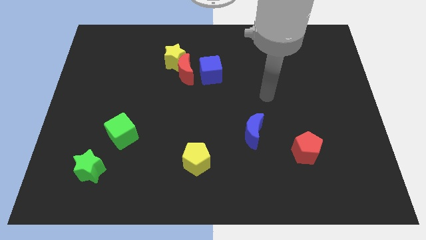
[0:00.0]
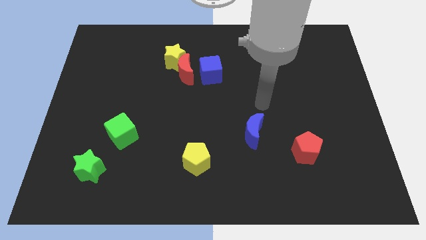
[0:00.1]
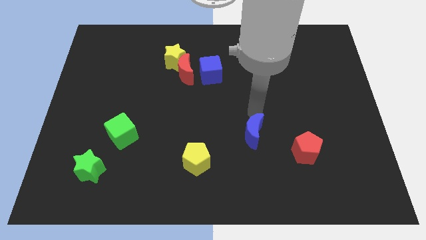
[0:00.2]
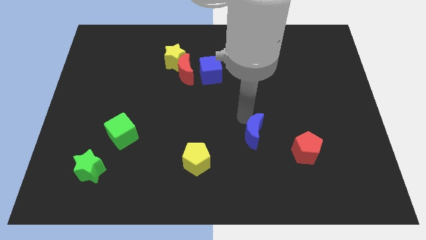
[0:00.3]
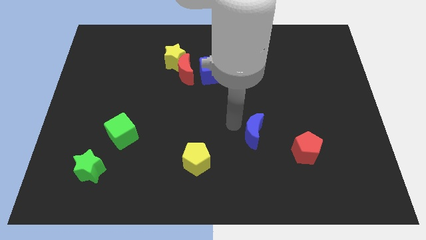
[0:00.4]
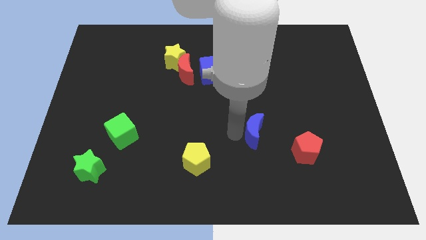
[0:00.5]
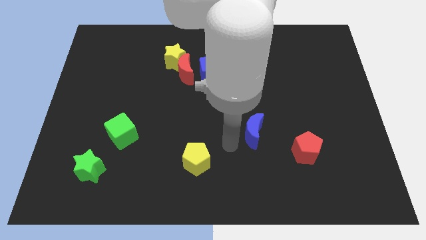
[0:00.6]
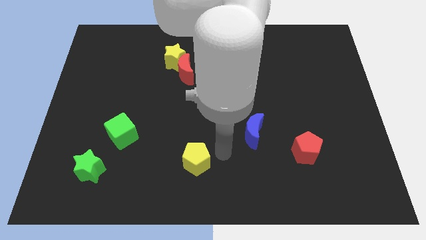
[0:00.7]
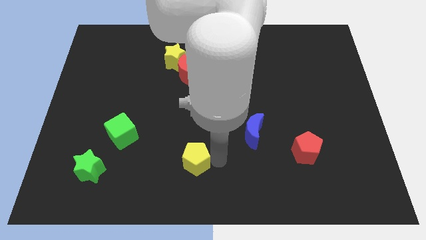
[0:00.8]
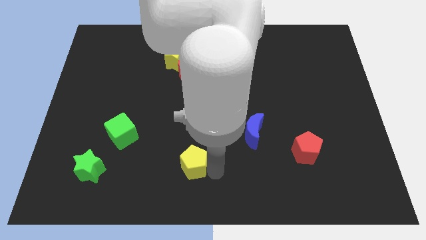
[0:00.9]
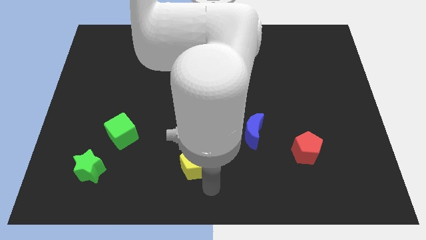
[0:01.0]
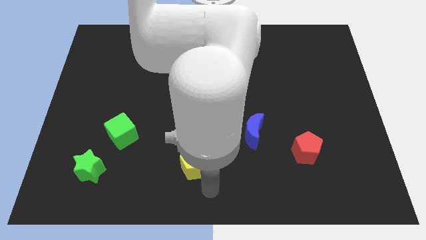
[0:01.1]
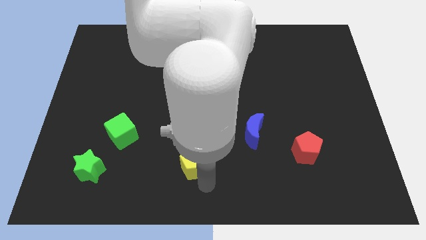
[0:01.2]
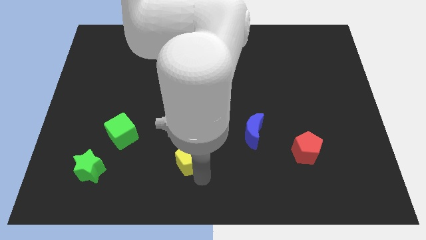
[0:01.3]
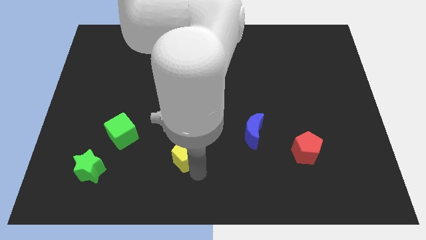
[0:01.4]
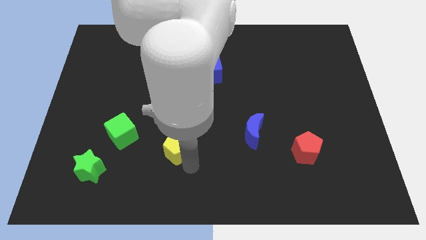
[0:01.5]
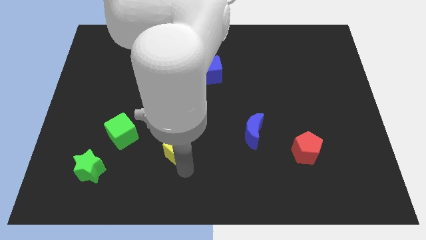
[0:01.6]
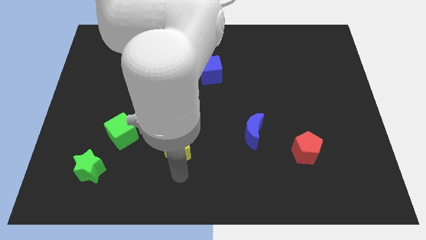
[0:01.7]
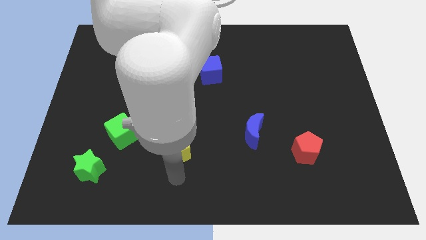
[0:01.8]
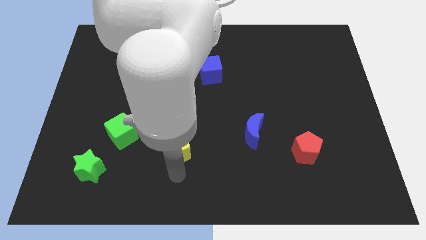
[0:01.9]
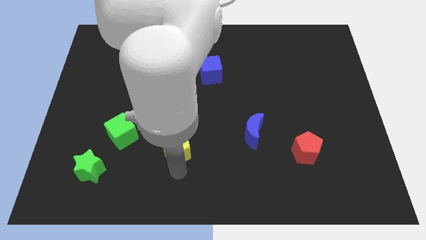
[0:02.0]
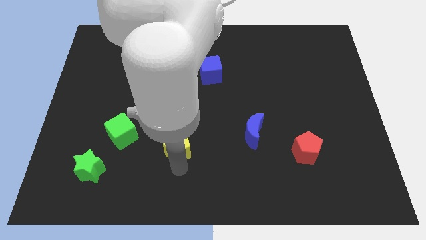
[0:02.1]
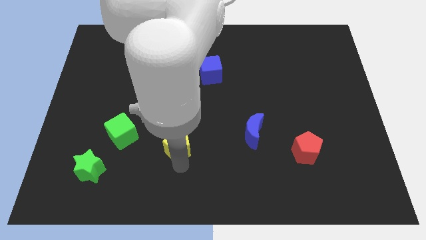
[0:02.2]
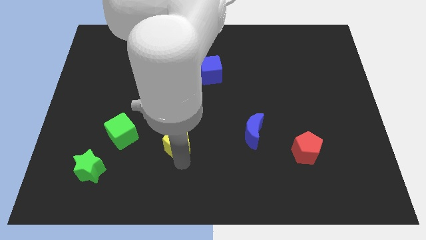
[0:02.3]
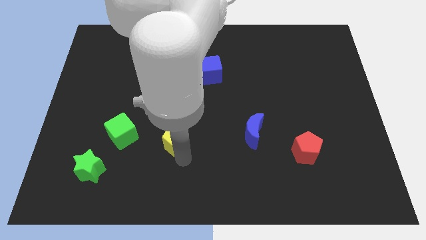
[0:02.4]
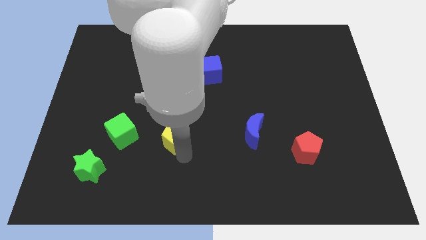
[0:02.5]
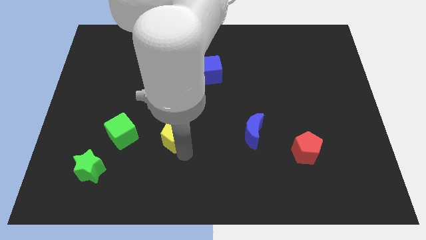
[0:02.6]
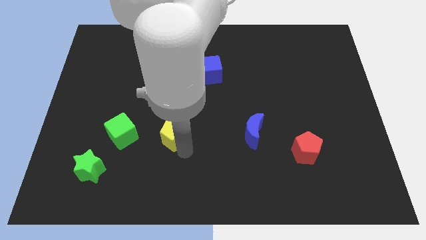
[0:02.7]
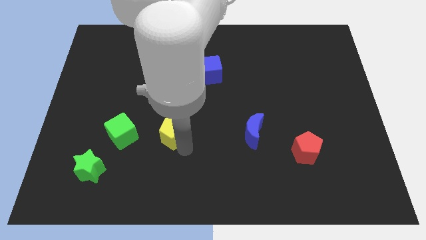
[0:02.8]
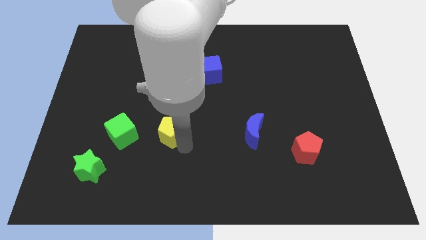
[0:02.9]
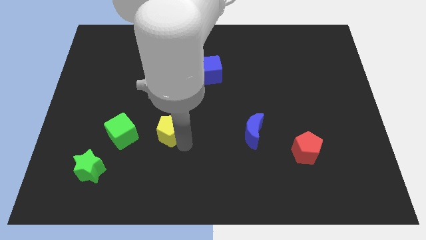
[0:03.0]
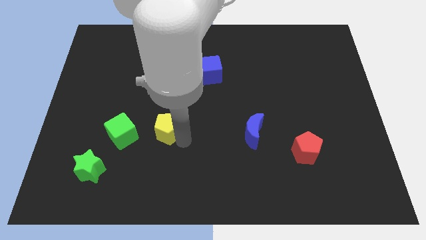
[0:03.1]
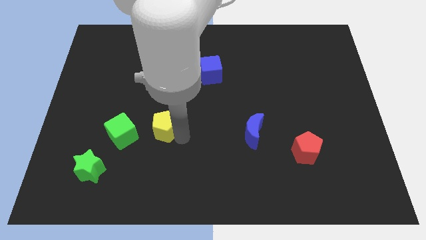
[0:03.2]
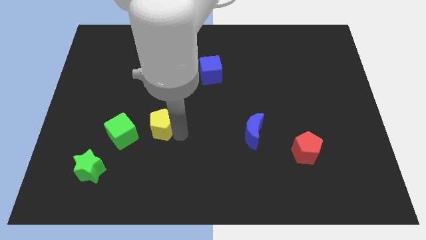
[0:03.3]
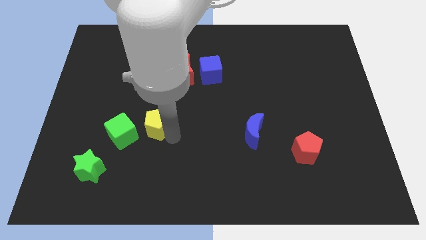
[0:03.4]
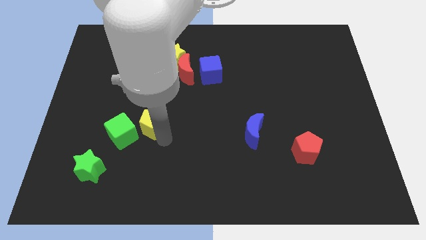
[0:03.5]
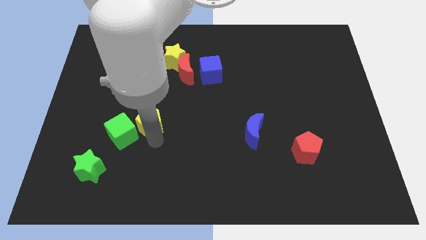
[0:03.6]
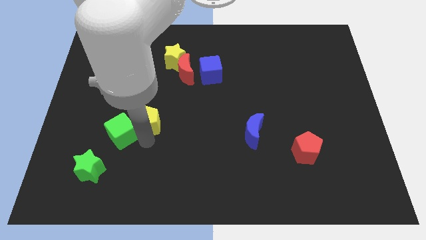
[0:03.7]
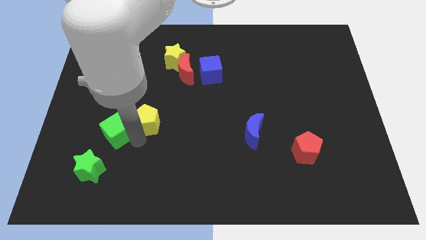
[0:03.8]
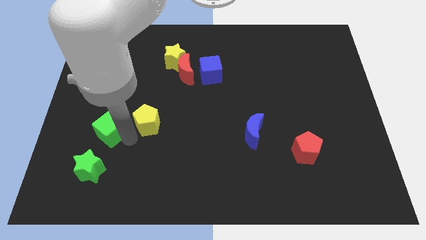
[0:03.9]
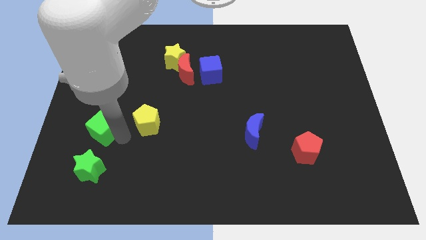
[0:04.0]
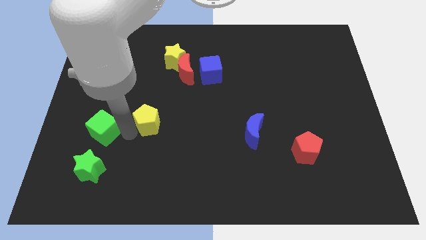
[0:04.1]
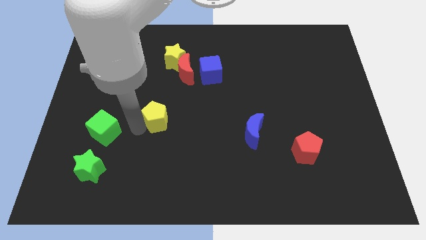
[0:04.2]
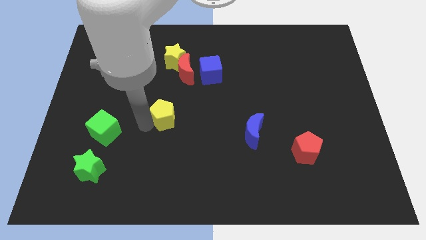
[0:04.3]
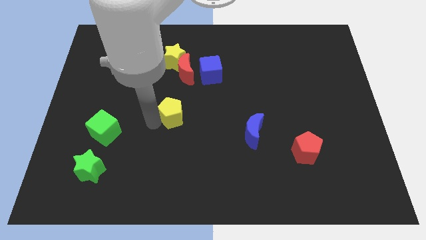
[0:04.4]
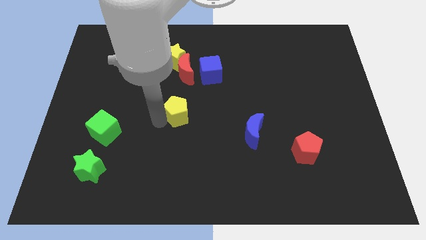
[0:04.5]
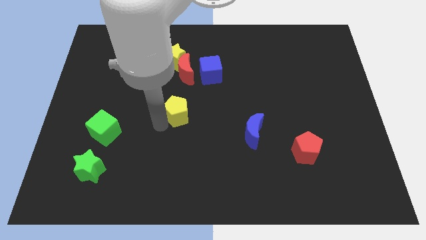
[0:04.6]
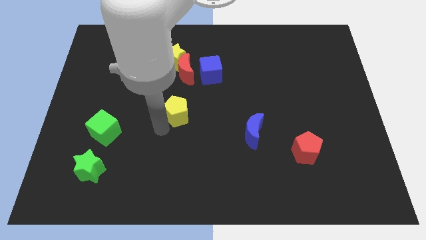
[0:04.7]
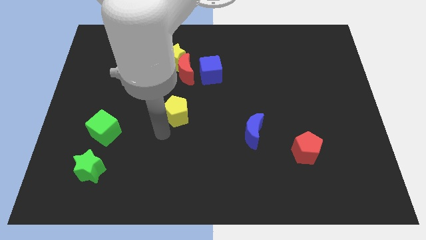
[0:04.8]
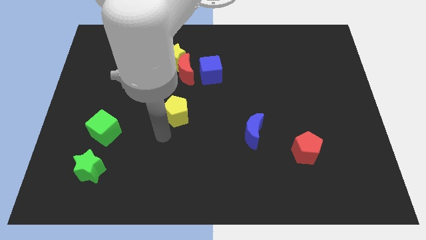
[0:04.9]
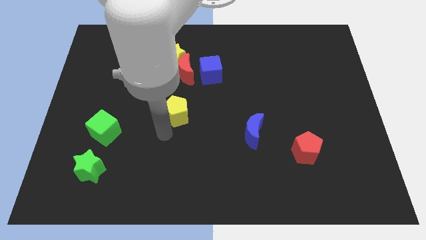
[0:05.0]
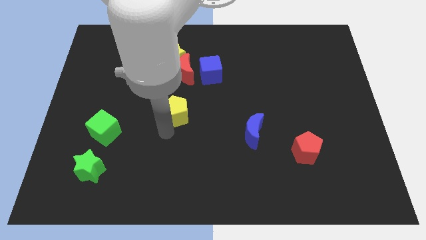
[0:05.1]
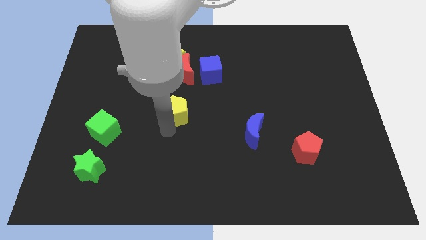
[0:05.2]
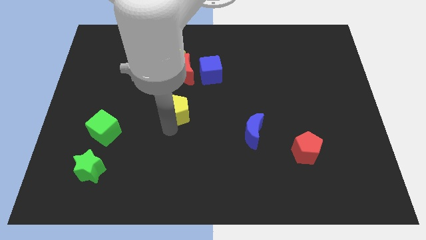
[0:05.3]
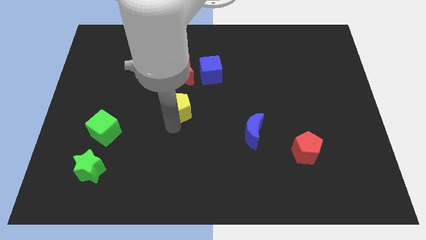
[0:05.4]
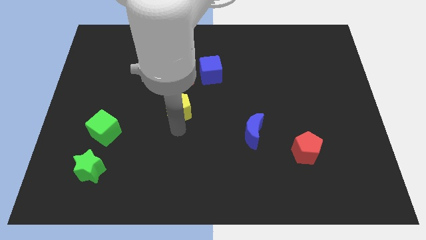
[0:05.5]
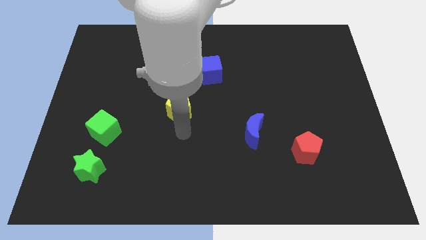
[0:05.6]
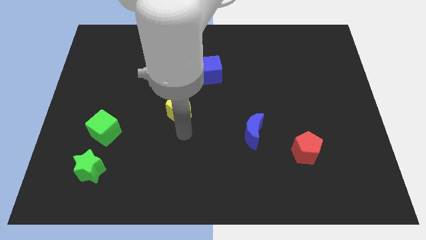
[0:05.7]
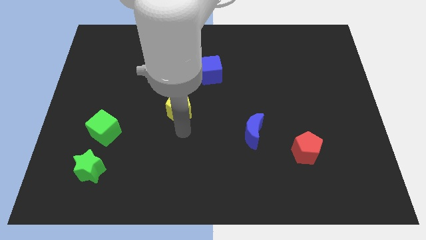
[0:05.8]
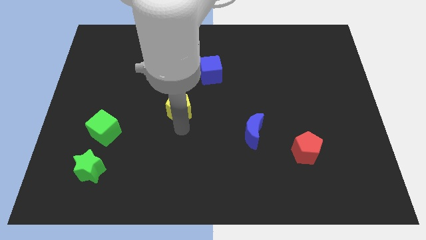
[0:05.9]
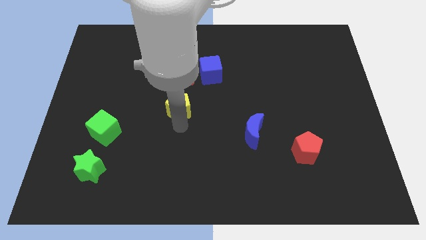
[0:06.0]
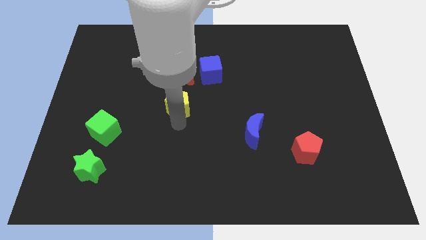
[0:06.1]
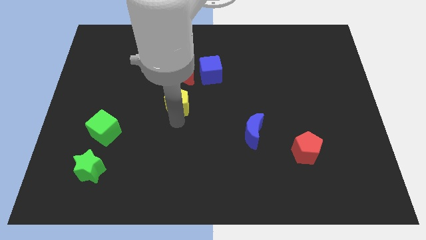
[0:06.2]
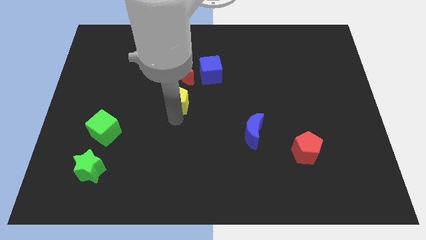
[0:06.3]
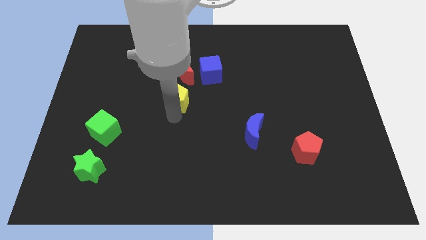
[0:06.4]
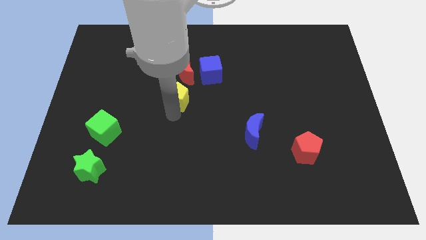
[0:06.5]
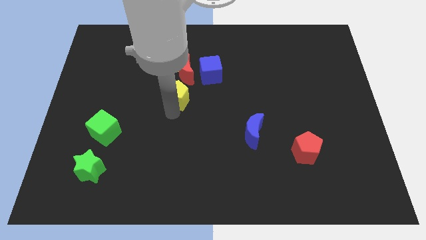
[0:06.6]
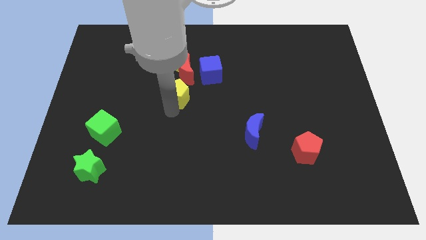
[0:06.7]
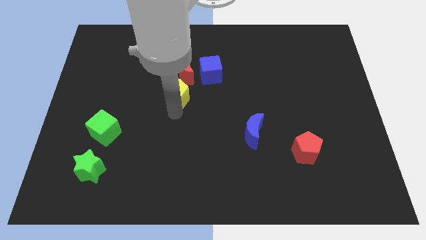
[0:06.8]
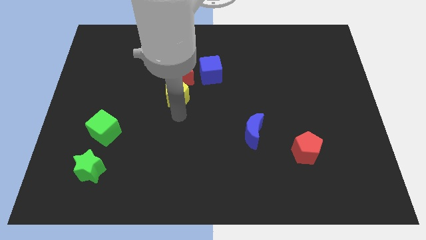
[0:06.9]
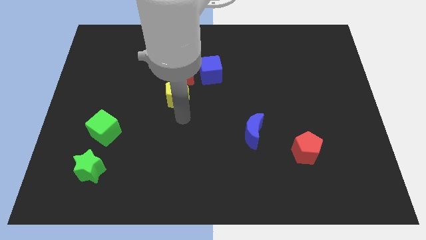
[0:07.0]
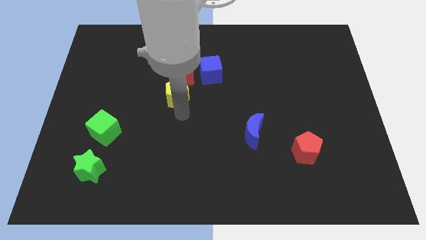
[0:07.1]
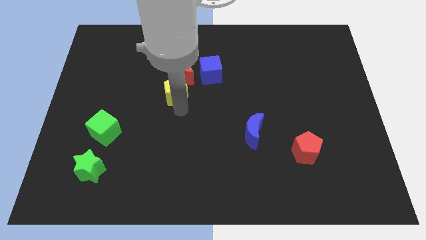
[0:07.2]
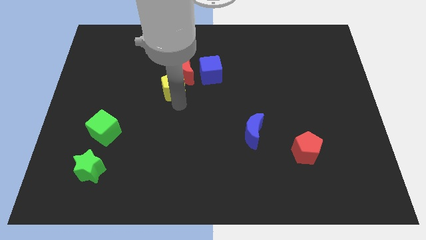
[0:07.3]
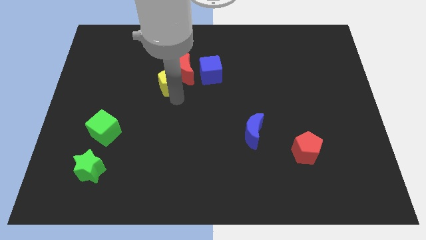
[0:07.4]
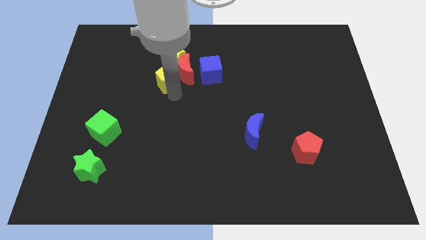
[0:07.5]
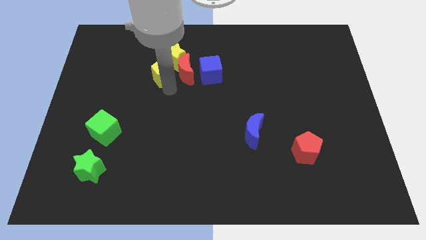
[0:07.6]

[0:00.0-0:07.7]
put the yellow pentagon to the yellow star
